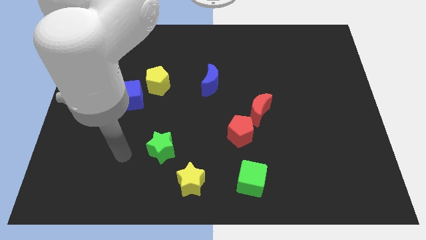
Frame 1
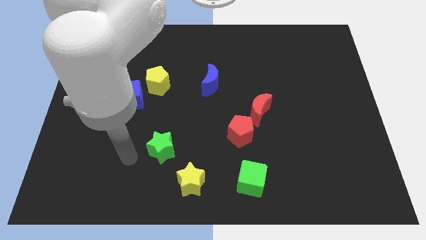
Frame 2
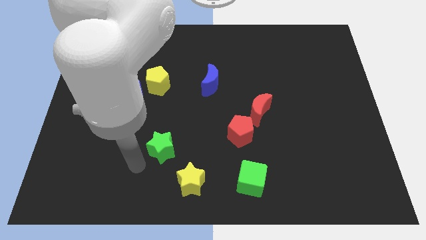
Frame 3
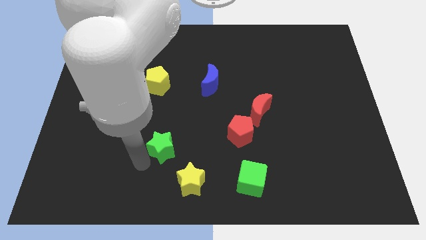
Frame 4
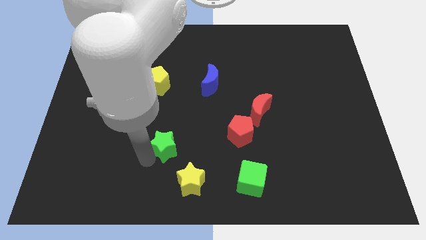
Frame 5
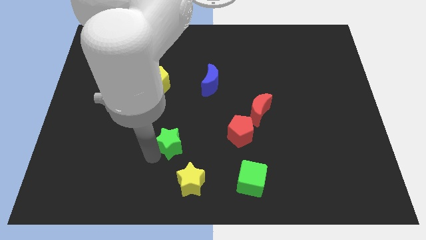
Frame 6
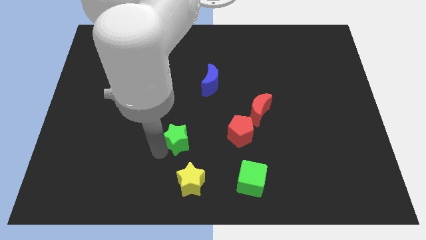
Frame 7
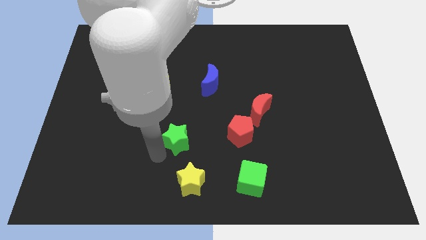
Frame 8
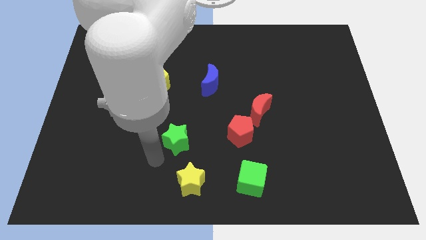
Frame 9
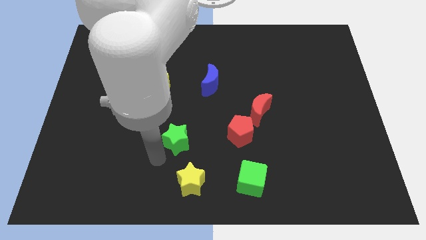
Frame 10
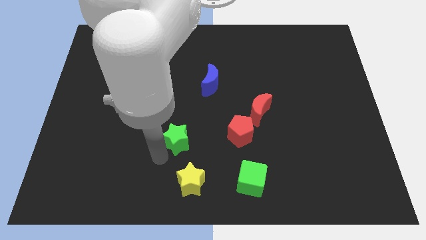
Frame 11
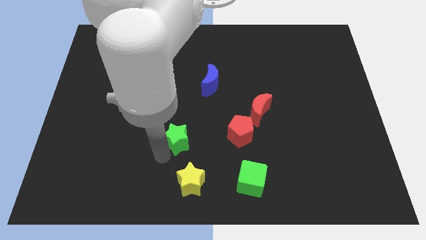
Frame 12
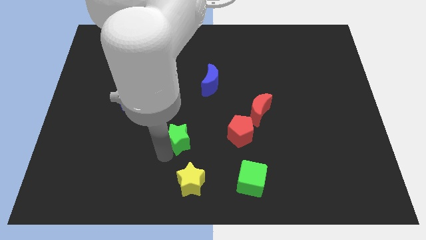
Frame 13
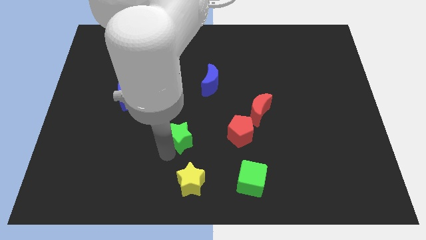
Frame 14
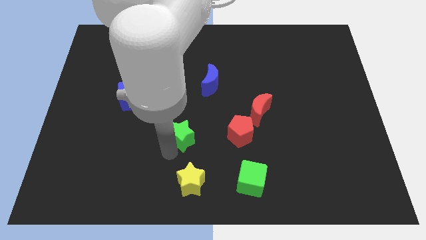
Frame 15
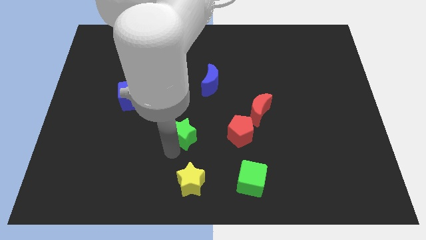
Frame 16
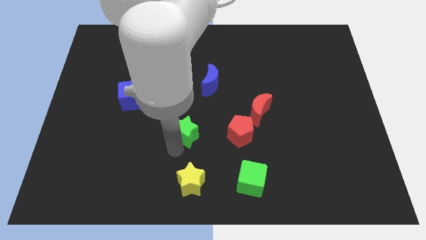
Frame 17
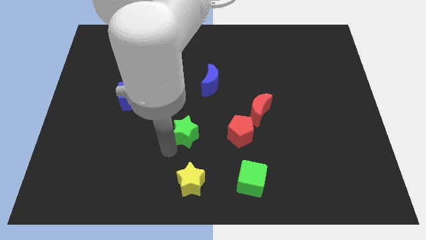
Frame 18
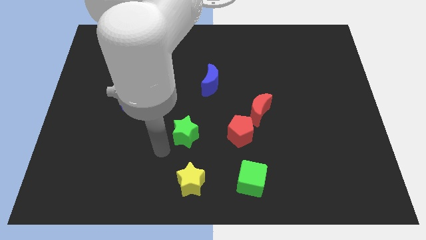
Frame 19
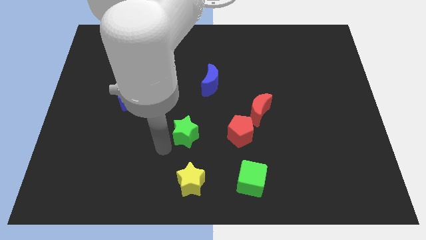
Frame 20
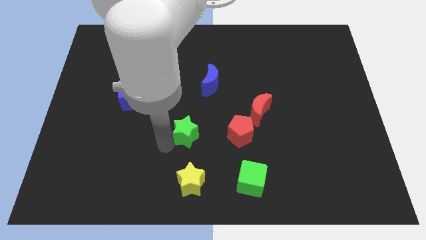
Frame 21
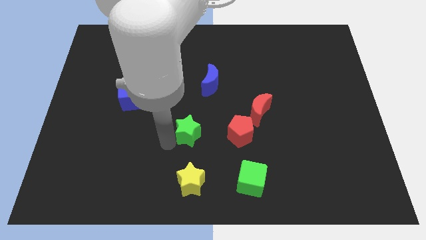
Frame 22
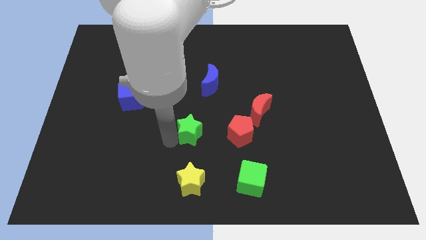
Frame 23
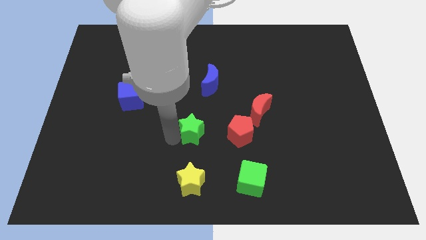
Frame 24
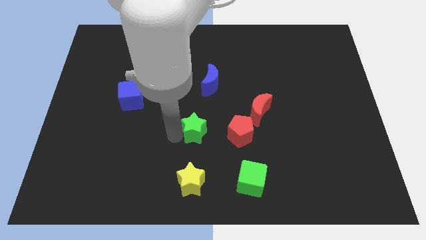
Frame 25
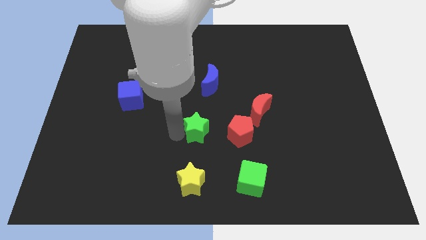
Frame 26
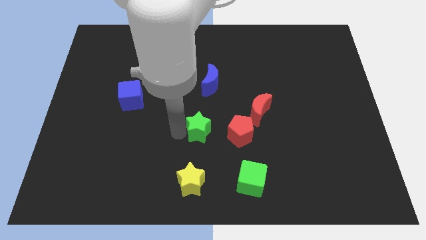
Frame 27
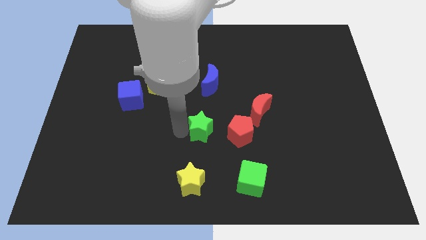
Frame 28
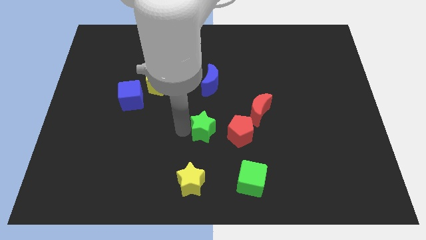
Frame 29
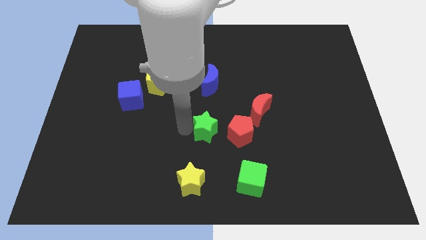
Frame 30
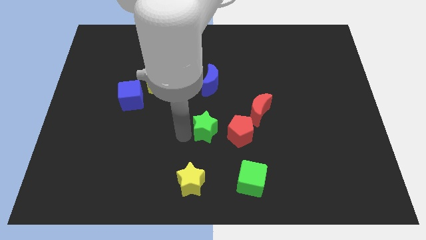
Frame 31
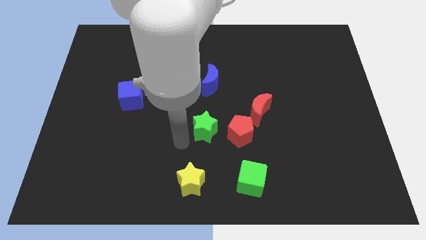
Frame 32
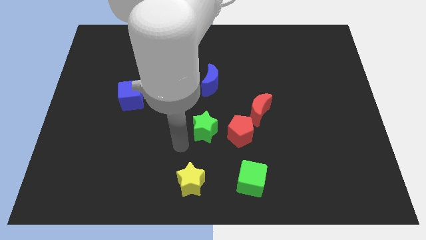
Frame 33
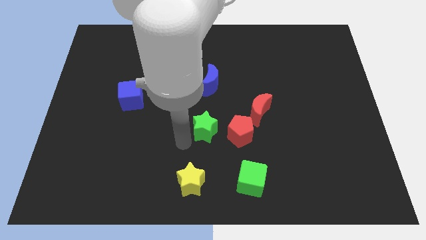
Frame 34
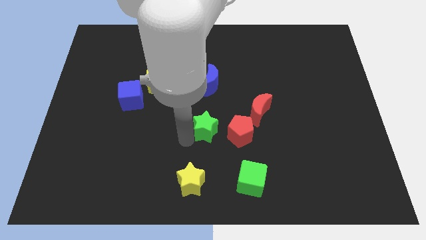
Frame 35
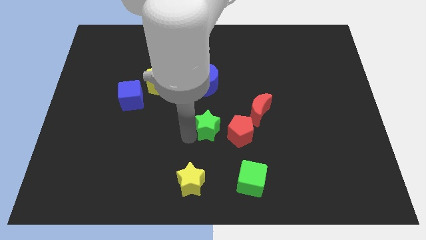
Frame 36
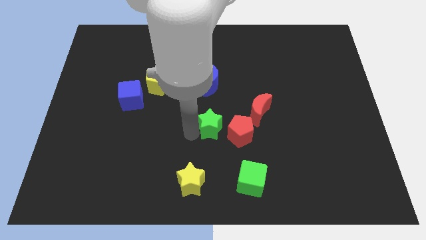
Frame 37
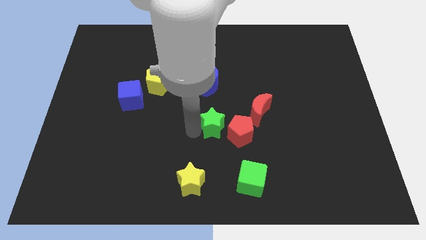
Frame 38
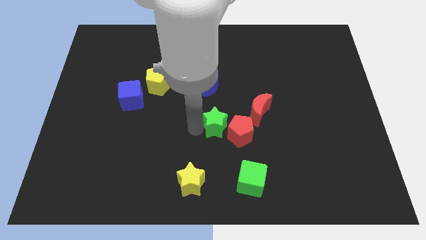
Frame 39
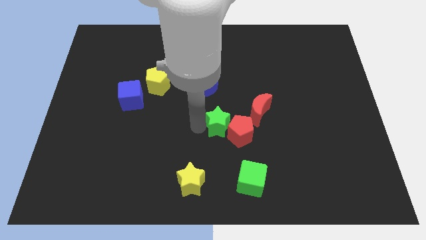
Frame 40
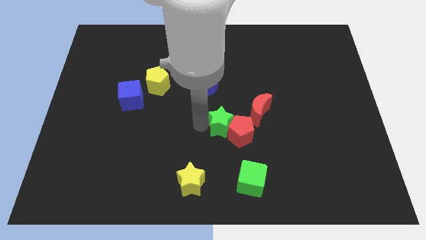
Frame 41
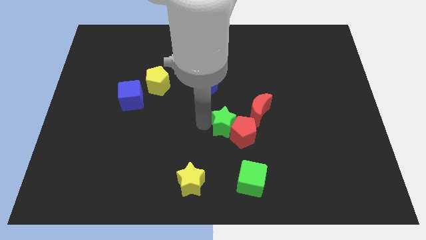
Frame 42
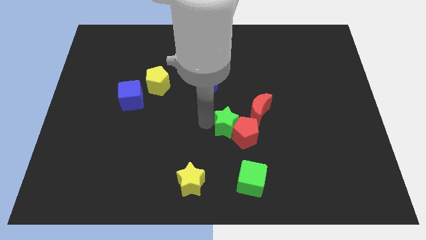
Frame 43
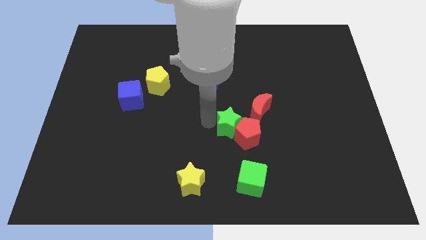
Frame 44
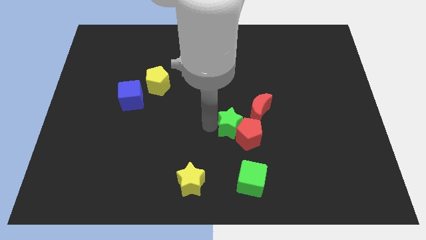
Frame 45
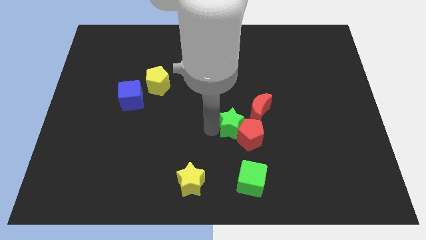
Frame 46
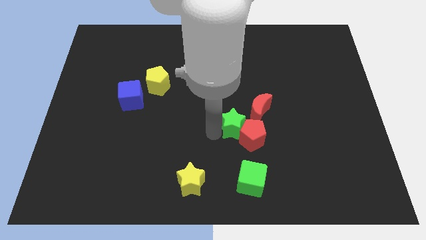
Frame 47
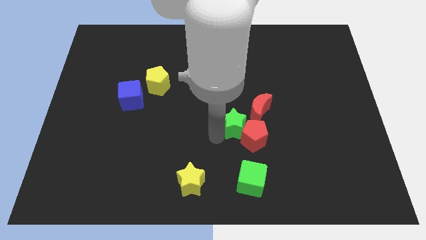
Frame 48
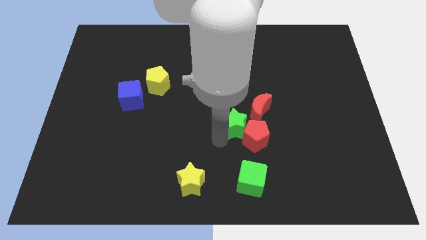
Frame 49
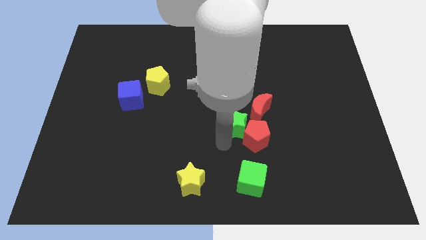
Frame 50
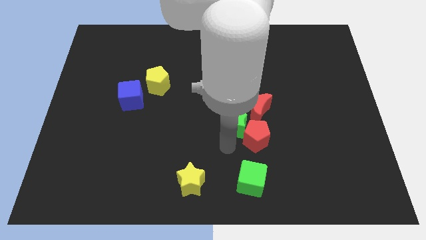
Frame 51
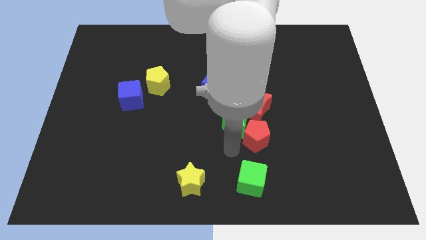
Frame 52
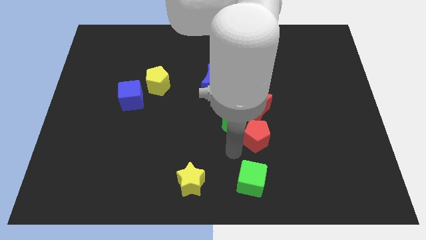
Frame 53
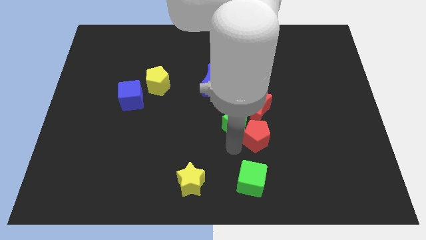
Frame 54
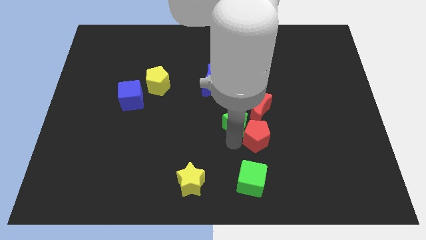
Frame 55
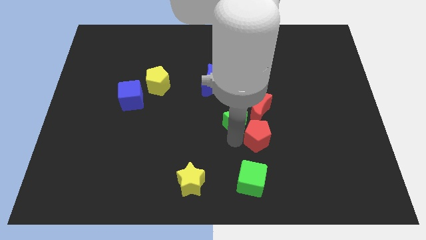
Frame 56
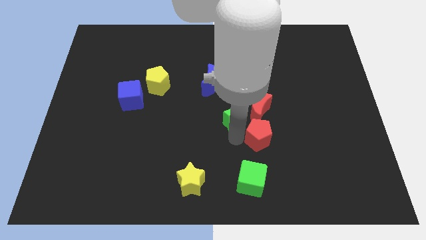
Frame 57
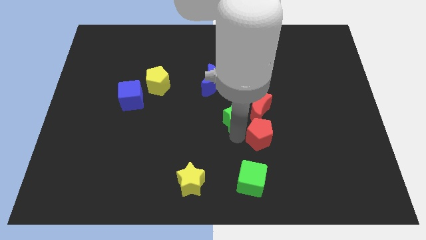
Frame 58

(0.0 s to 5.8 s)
push the green star close to the red moon

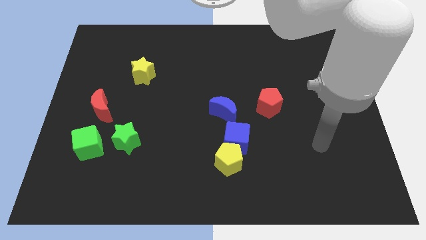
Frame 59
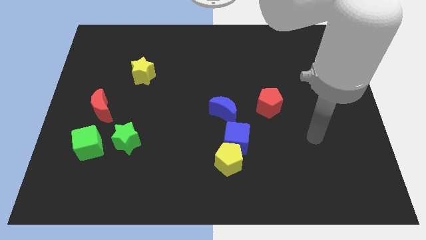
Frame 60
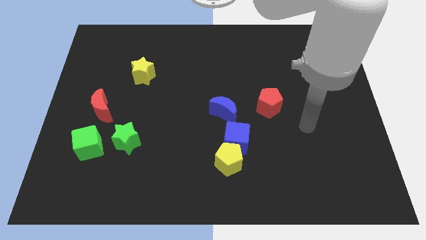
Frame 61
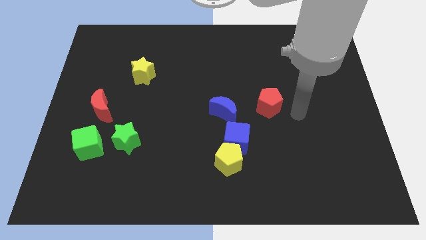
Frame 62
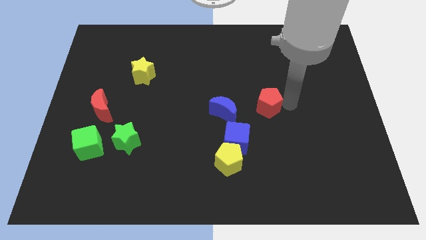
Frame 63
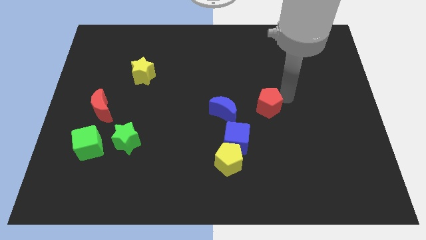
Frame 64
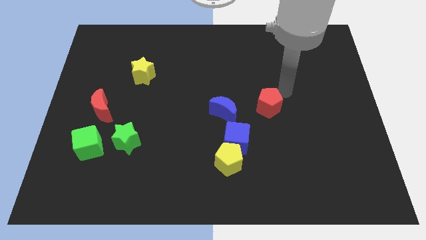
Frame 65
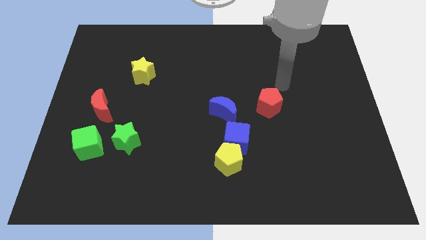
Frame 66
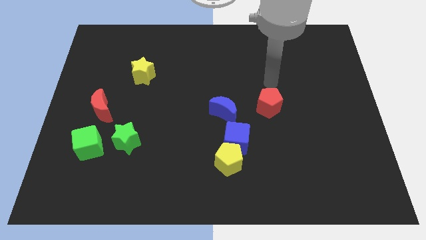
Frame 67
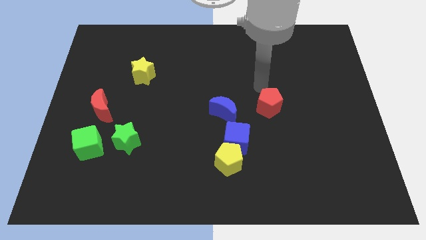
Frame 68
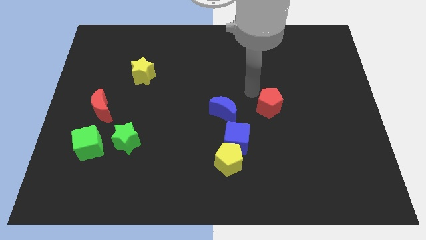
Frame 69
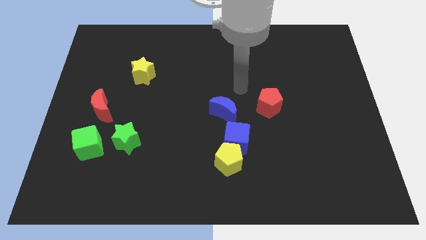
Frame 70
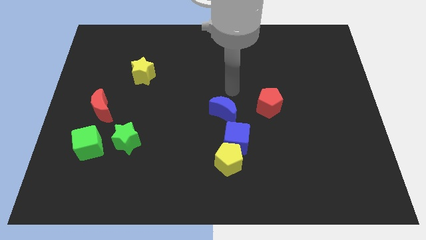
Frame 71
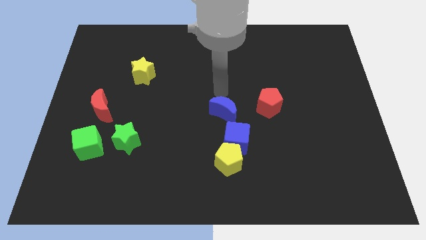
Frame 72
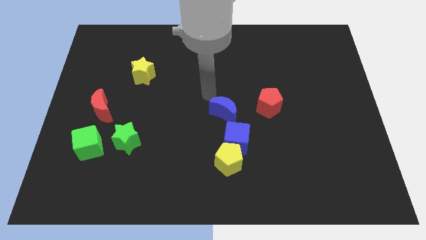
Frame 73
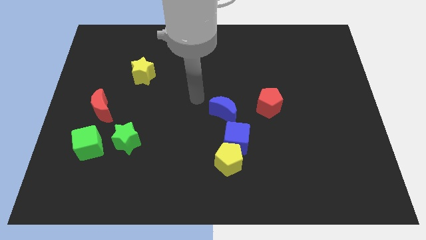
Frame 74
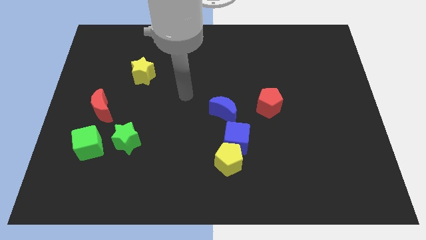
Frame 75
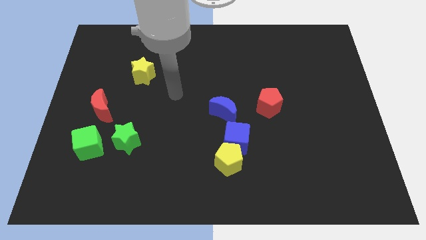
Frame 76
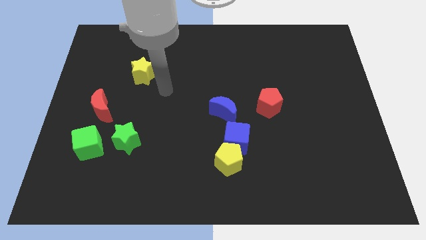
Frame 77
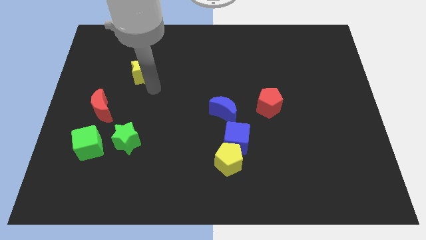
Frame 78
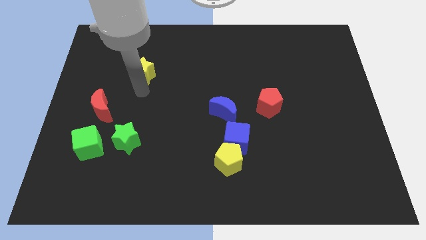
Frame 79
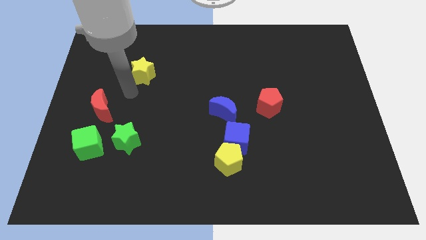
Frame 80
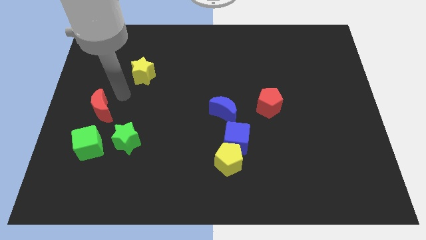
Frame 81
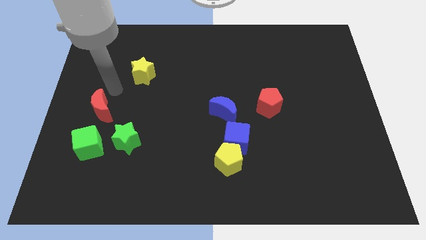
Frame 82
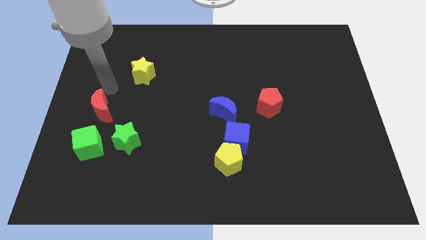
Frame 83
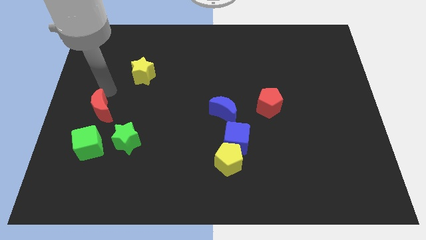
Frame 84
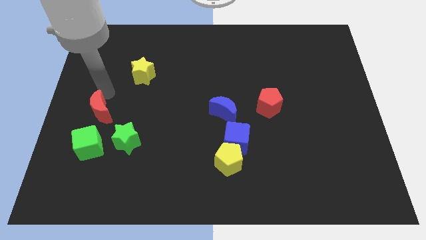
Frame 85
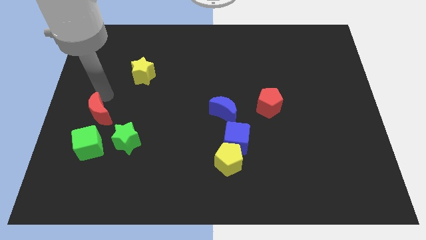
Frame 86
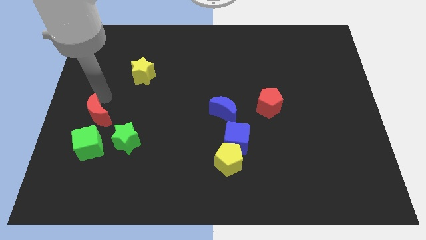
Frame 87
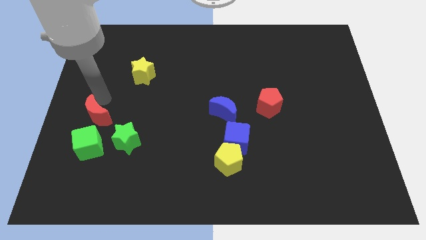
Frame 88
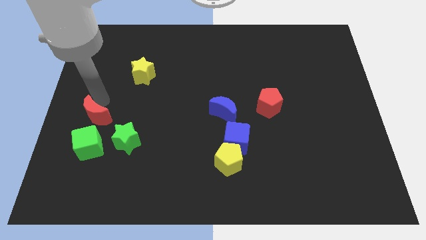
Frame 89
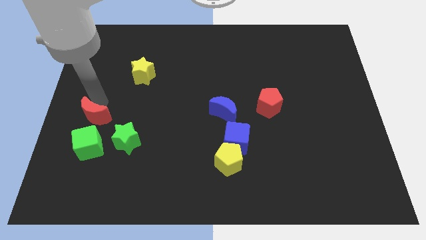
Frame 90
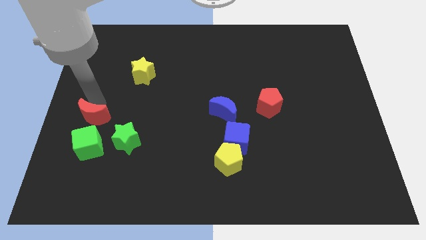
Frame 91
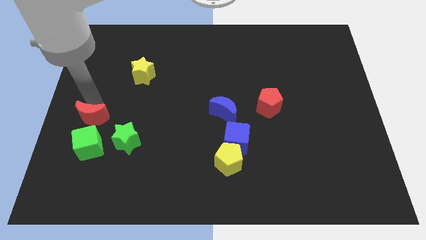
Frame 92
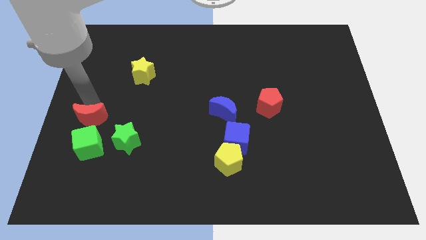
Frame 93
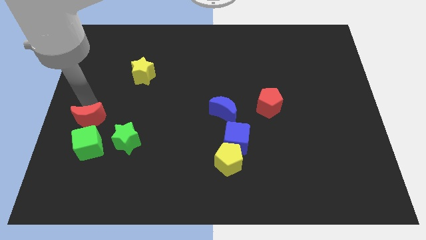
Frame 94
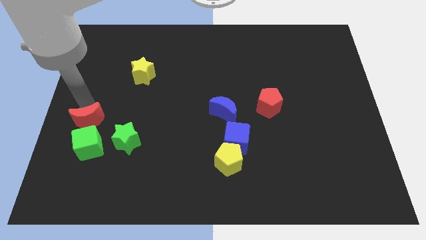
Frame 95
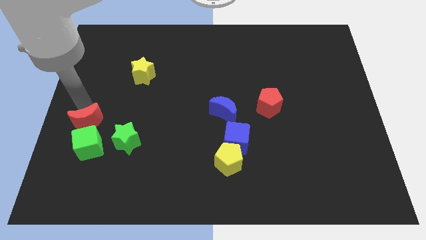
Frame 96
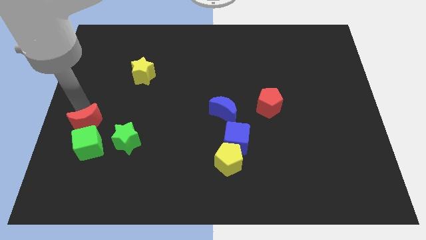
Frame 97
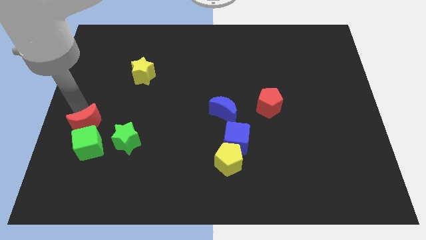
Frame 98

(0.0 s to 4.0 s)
move the red moon to the green cube
